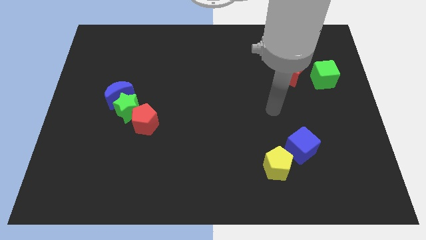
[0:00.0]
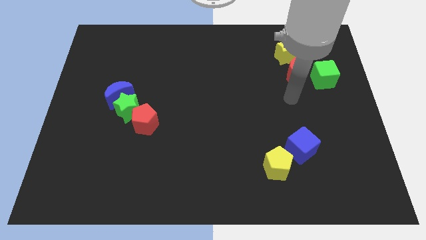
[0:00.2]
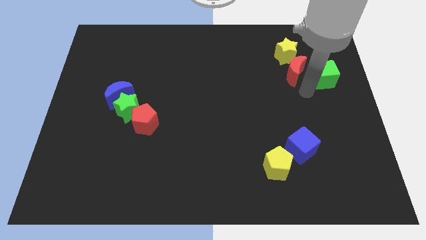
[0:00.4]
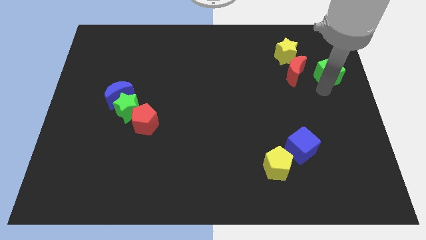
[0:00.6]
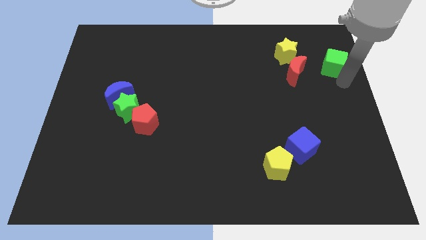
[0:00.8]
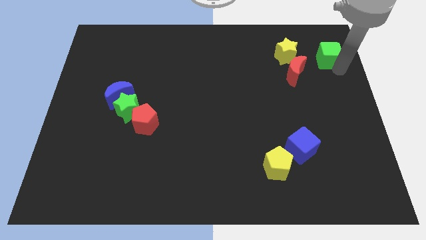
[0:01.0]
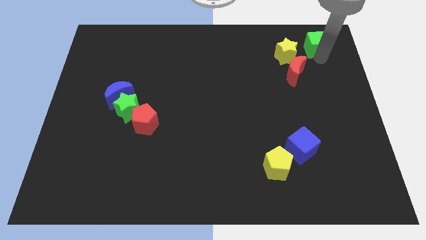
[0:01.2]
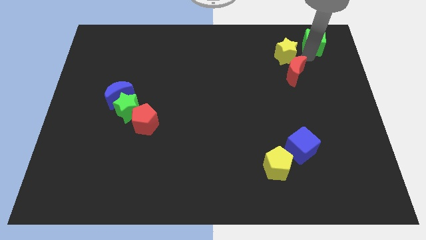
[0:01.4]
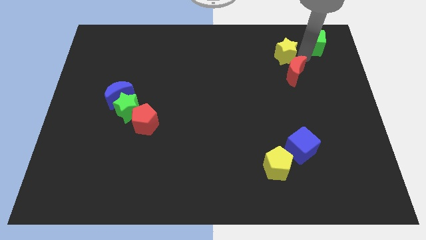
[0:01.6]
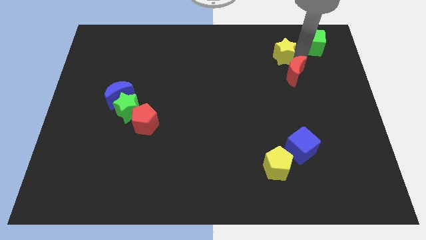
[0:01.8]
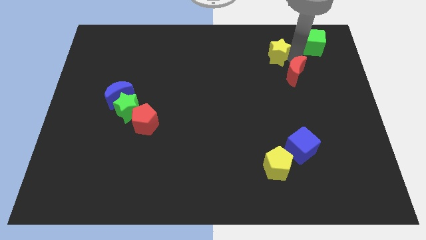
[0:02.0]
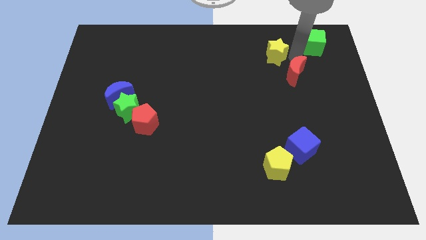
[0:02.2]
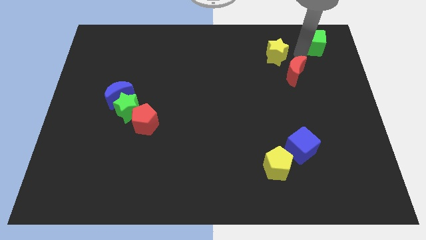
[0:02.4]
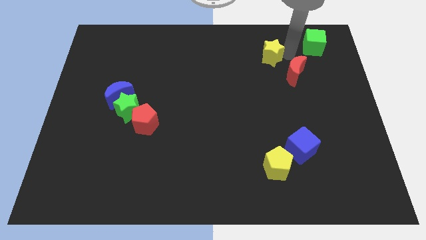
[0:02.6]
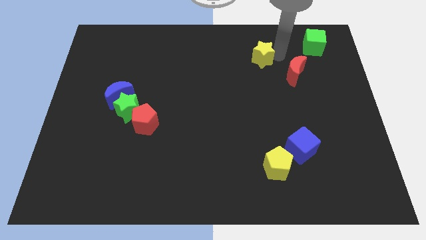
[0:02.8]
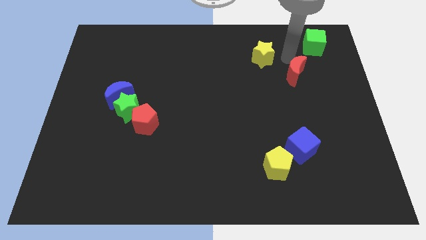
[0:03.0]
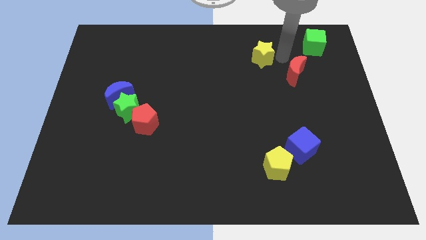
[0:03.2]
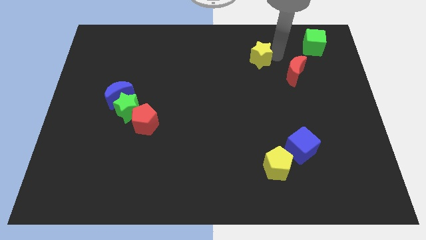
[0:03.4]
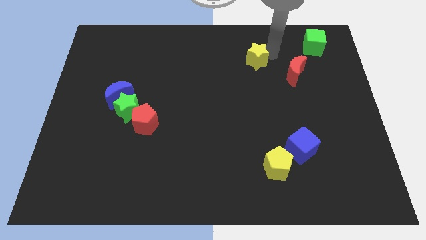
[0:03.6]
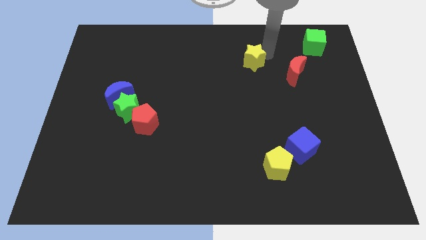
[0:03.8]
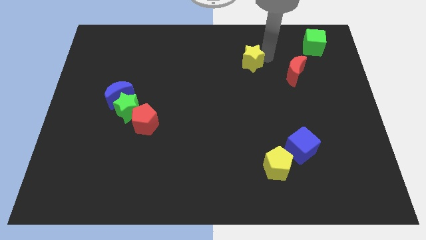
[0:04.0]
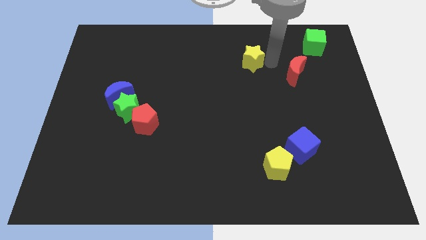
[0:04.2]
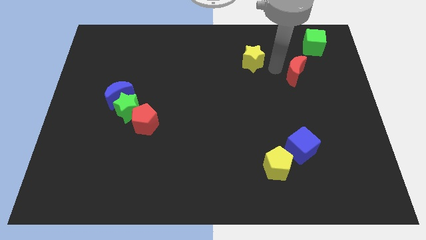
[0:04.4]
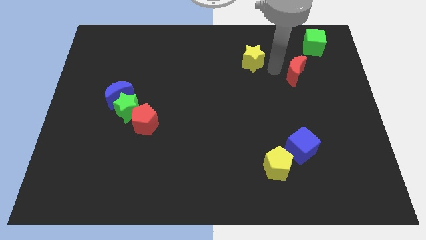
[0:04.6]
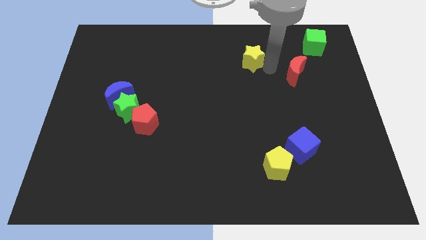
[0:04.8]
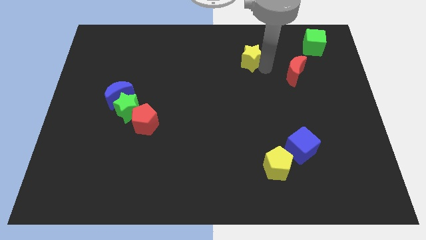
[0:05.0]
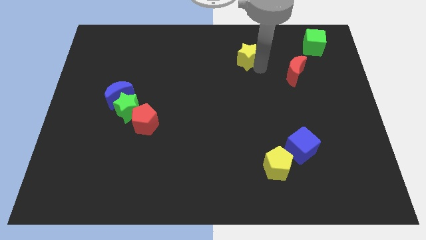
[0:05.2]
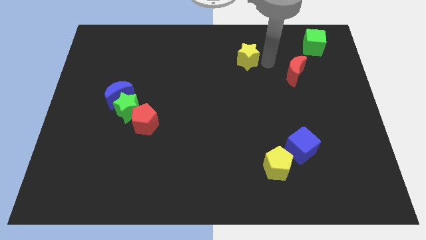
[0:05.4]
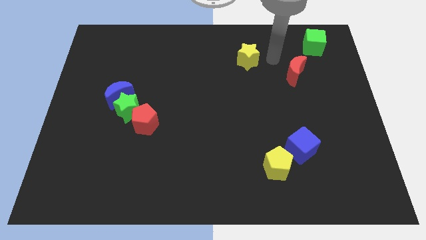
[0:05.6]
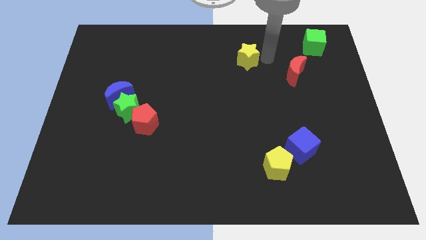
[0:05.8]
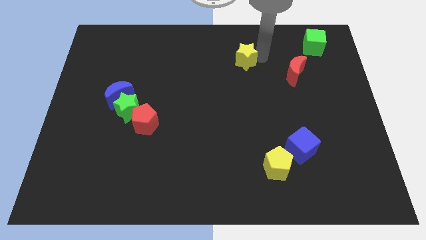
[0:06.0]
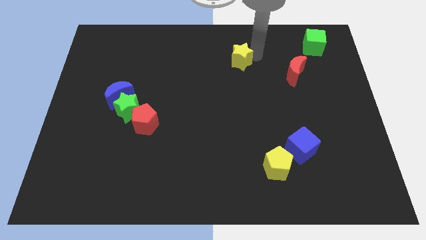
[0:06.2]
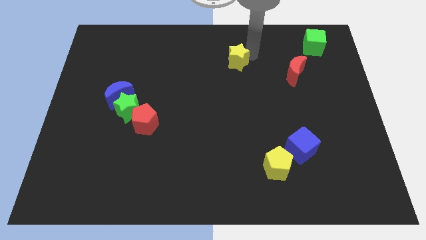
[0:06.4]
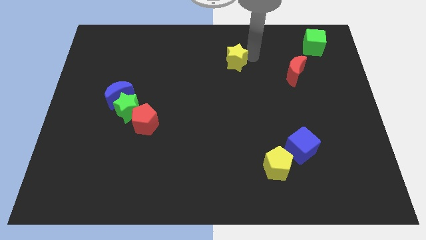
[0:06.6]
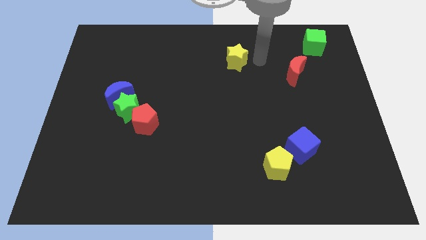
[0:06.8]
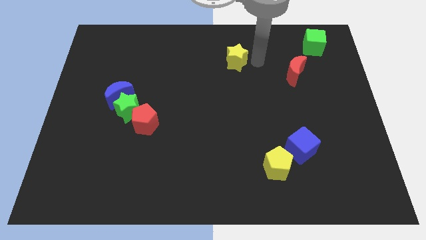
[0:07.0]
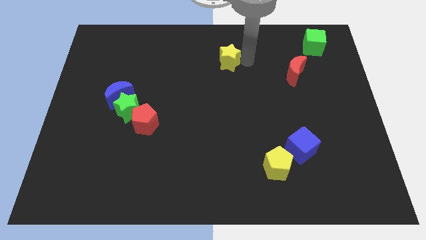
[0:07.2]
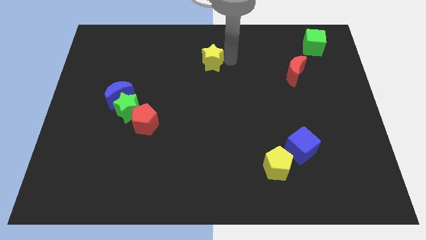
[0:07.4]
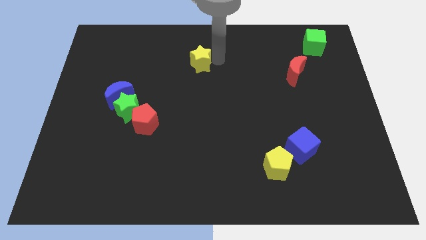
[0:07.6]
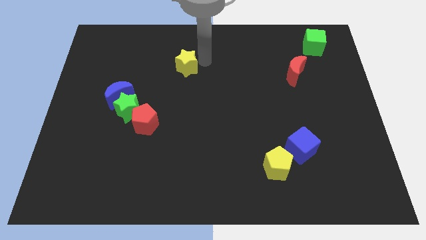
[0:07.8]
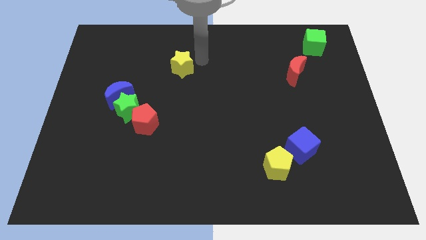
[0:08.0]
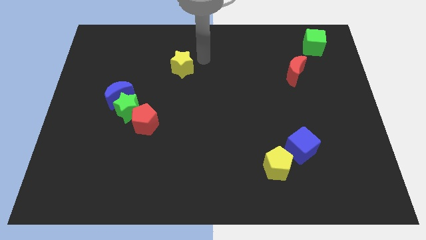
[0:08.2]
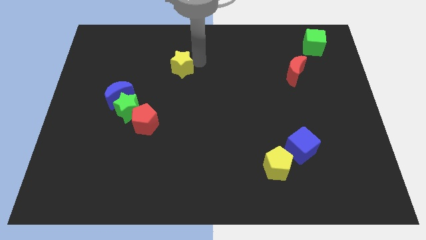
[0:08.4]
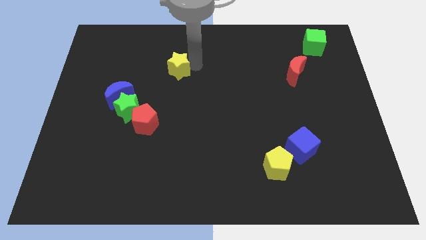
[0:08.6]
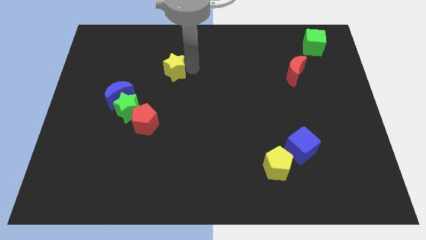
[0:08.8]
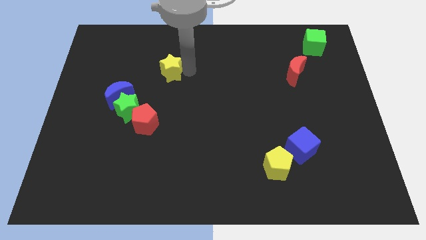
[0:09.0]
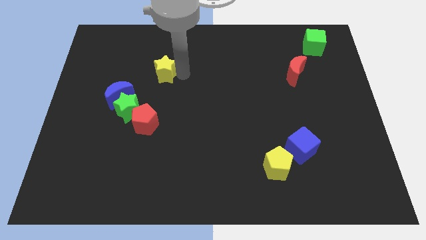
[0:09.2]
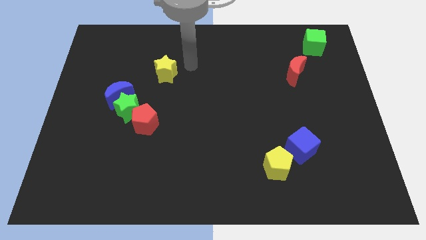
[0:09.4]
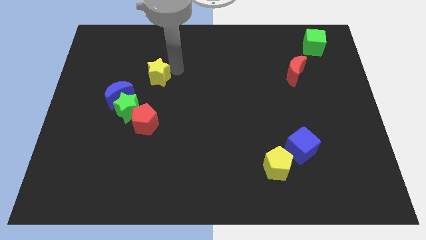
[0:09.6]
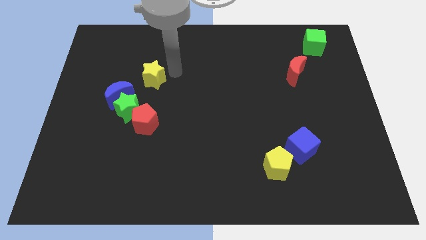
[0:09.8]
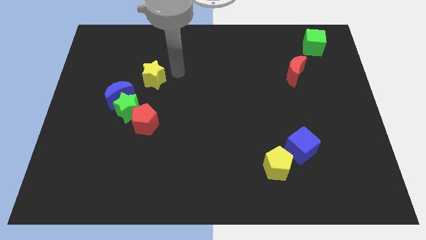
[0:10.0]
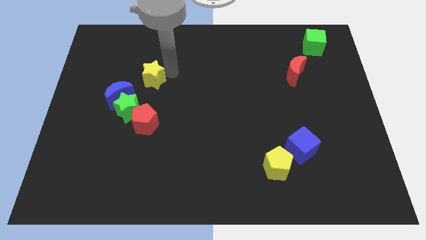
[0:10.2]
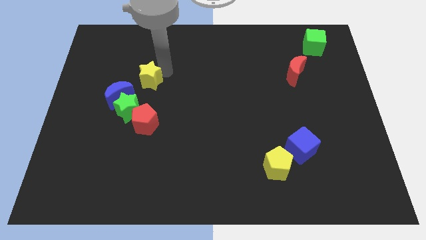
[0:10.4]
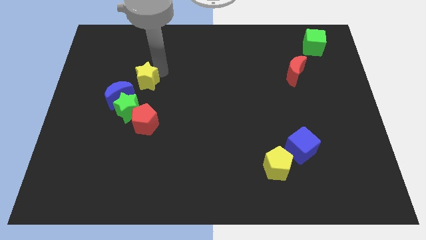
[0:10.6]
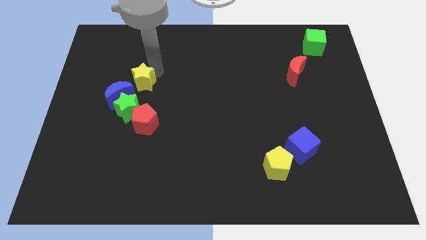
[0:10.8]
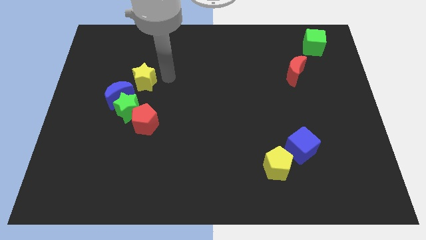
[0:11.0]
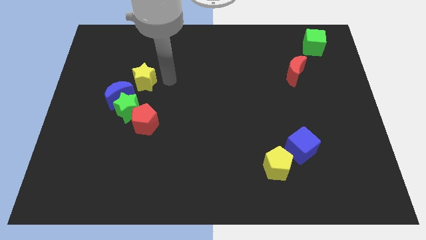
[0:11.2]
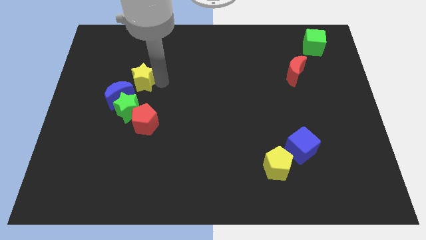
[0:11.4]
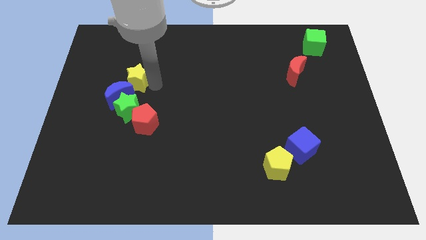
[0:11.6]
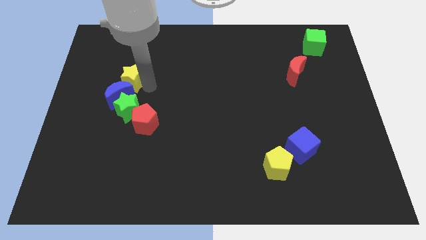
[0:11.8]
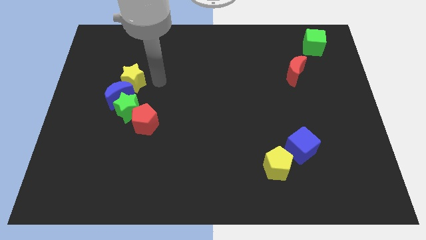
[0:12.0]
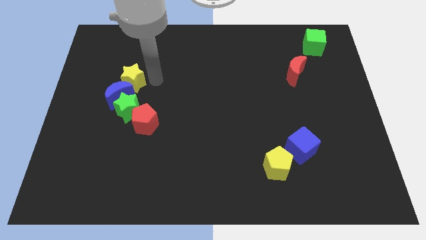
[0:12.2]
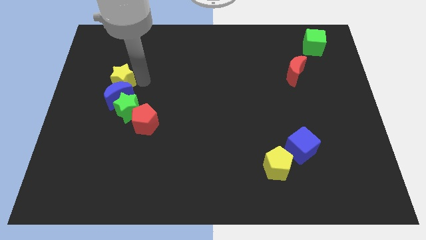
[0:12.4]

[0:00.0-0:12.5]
push the yellow star diagonally up and to the left of the green star
